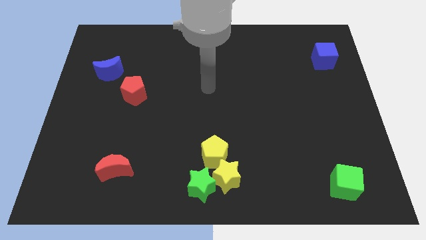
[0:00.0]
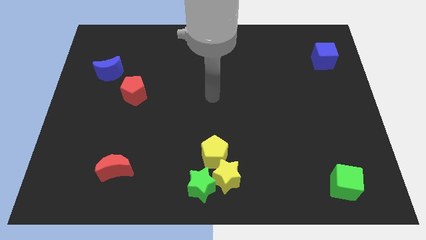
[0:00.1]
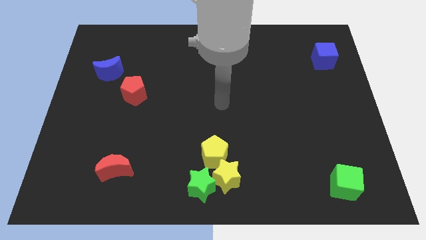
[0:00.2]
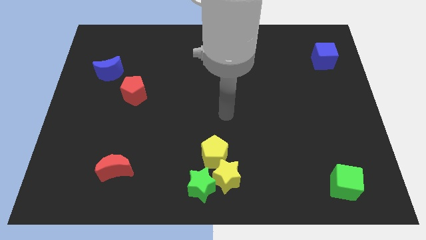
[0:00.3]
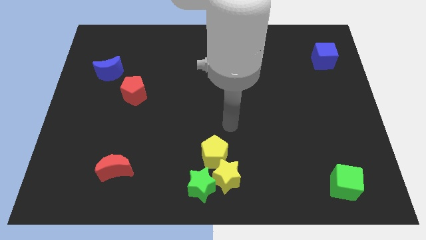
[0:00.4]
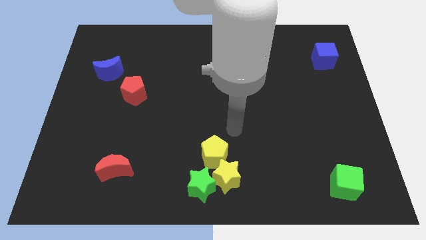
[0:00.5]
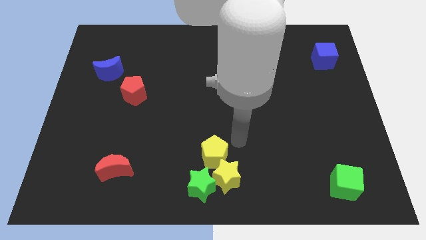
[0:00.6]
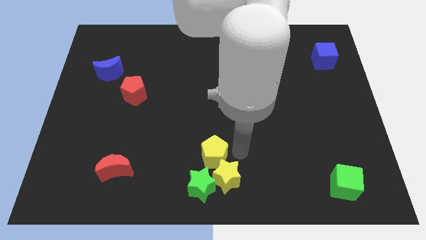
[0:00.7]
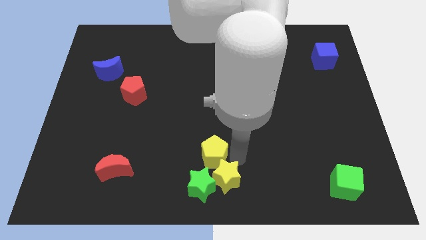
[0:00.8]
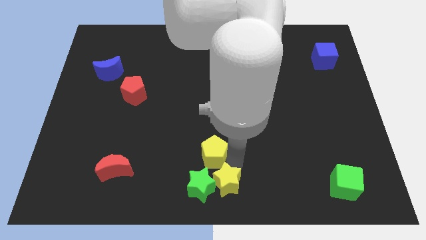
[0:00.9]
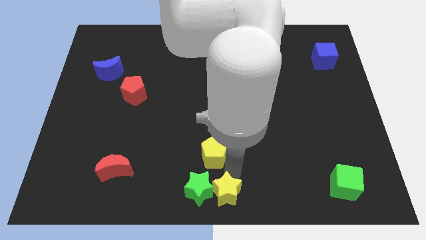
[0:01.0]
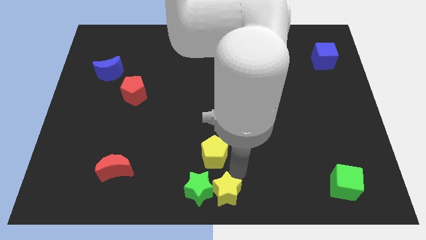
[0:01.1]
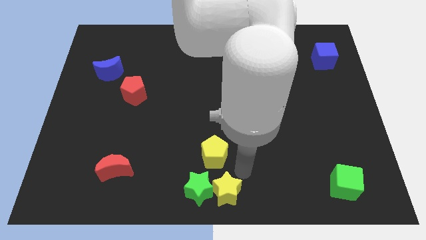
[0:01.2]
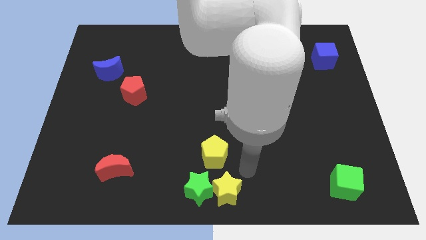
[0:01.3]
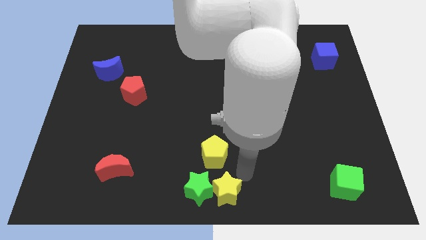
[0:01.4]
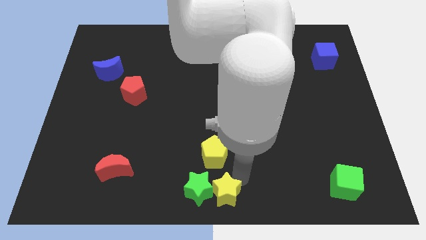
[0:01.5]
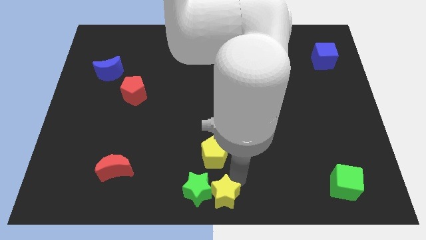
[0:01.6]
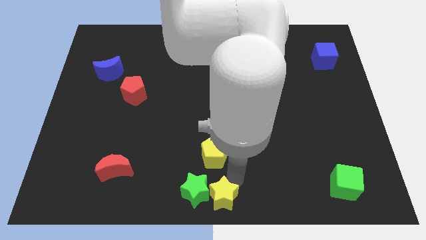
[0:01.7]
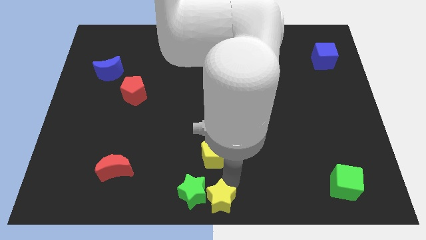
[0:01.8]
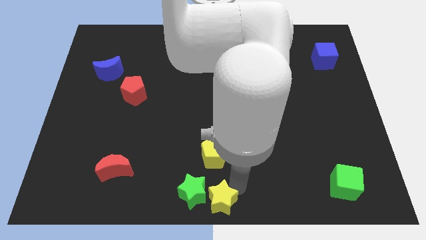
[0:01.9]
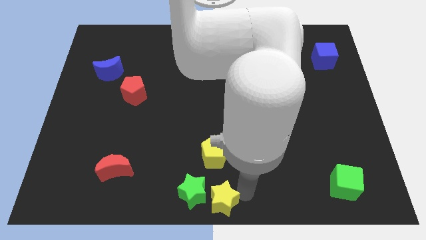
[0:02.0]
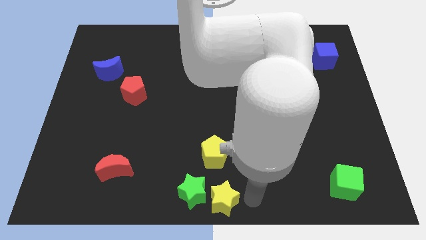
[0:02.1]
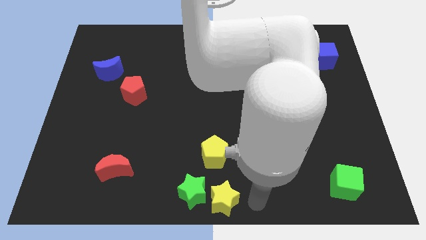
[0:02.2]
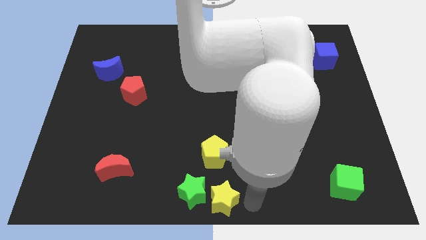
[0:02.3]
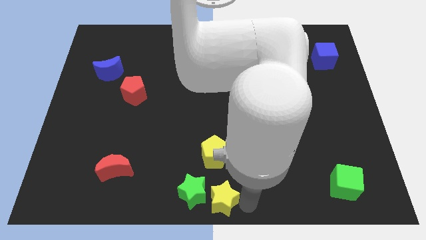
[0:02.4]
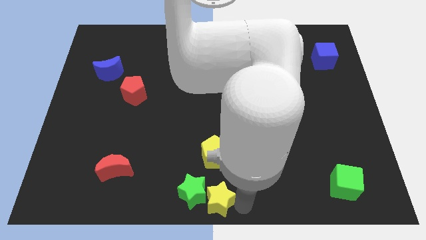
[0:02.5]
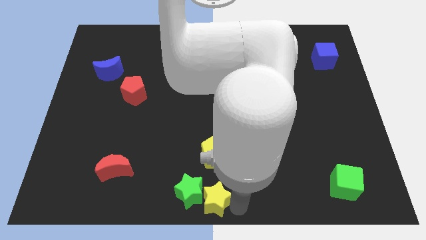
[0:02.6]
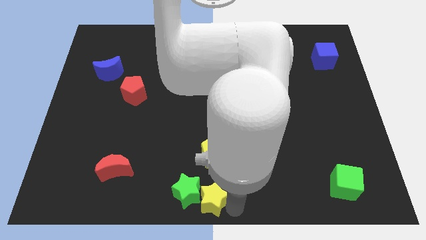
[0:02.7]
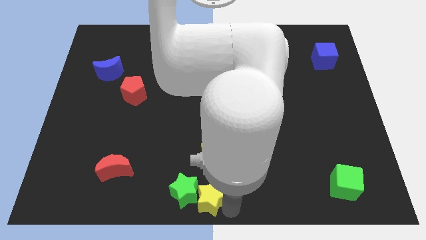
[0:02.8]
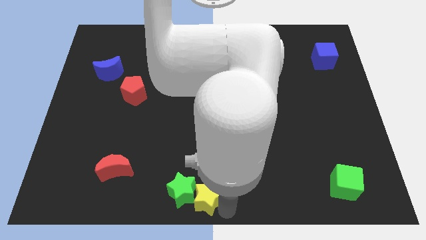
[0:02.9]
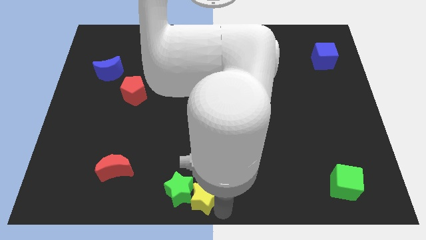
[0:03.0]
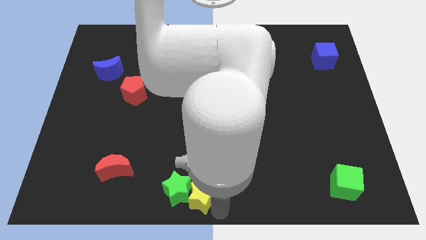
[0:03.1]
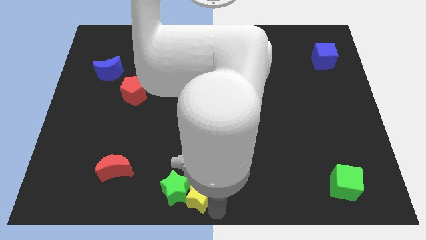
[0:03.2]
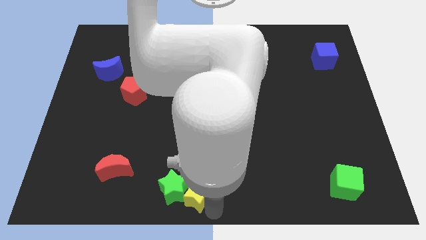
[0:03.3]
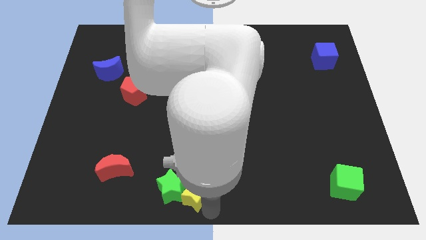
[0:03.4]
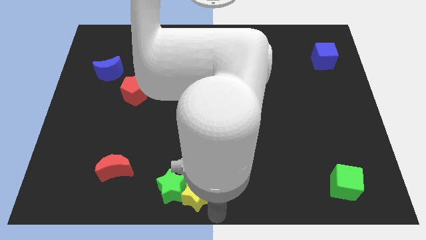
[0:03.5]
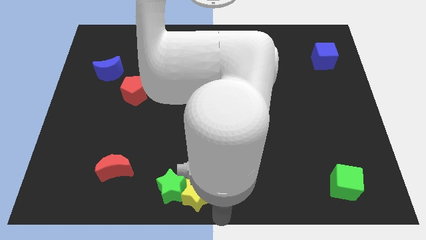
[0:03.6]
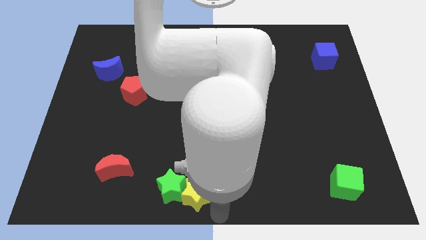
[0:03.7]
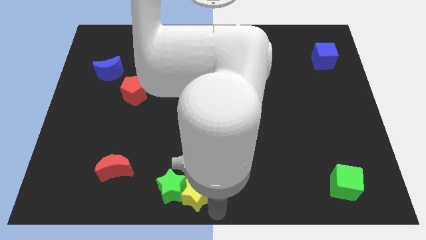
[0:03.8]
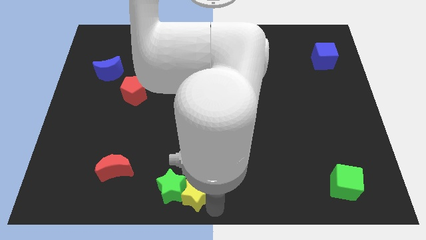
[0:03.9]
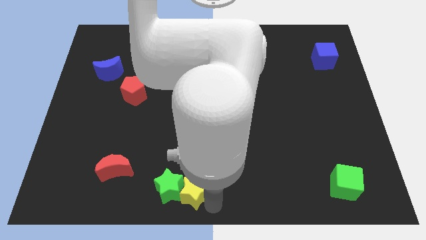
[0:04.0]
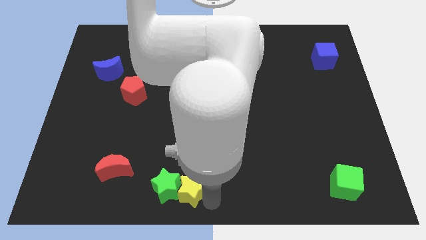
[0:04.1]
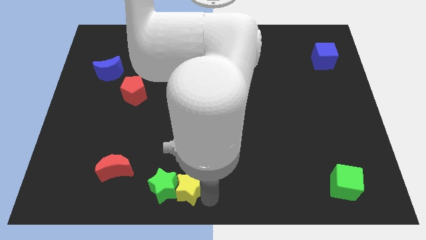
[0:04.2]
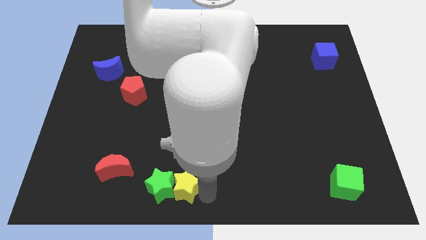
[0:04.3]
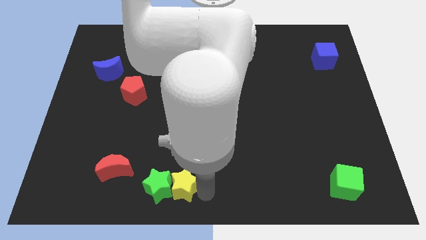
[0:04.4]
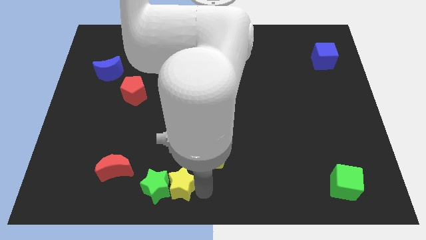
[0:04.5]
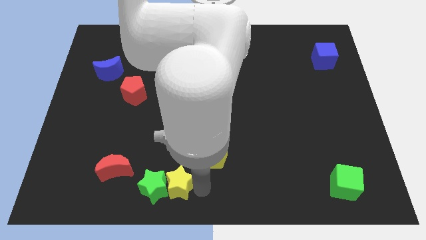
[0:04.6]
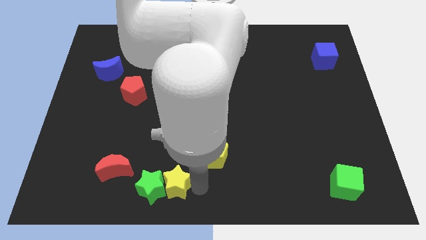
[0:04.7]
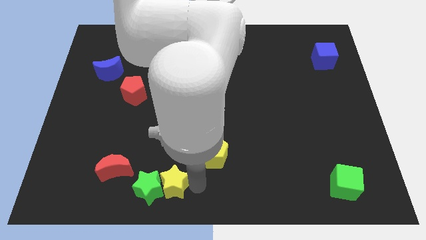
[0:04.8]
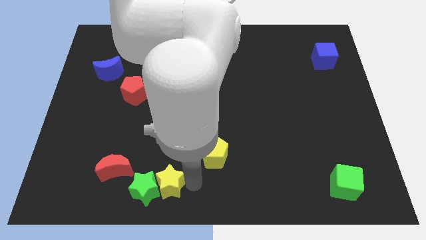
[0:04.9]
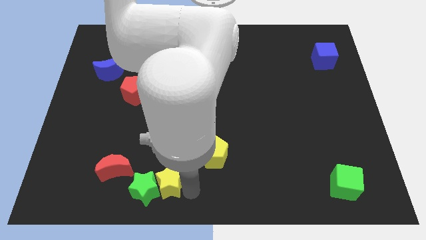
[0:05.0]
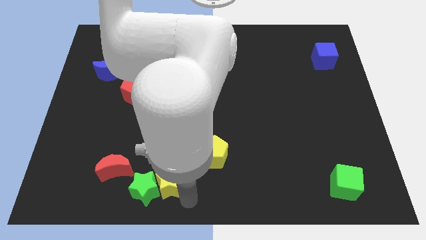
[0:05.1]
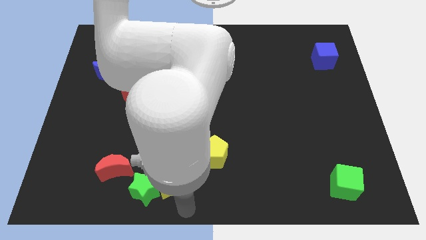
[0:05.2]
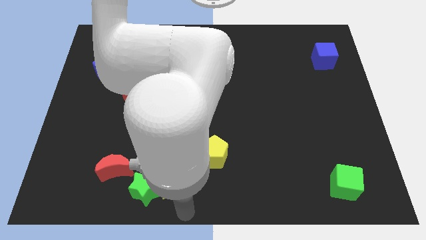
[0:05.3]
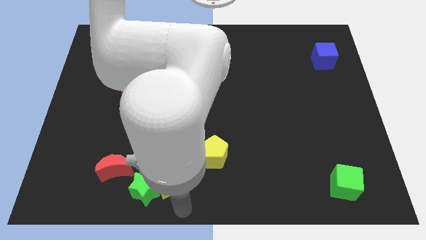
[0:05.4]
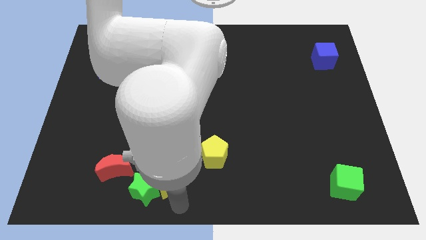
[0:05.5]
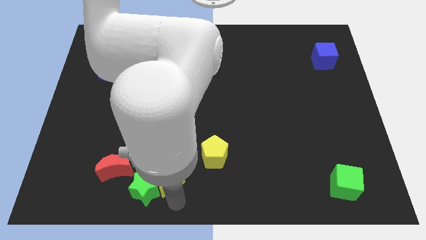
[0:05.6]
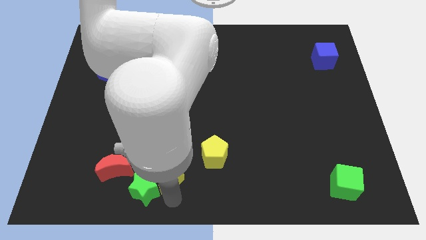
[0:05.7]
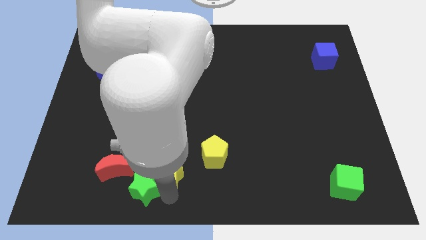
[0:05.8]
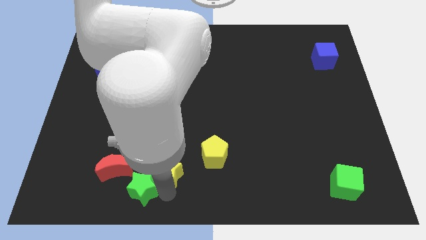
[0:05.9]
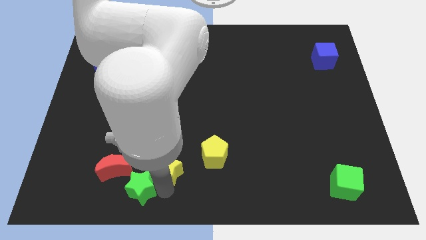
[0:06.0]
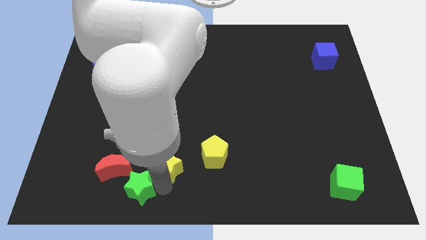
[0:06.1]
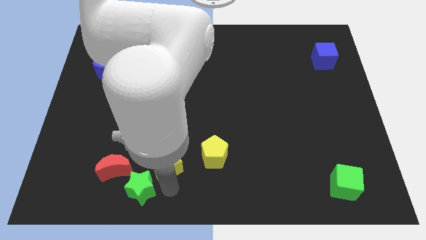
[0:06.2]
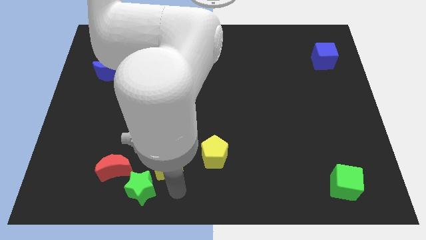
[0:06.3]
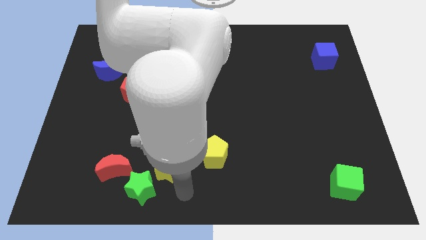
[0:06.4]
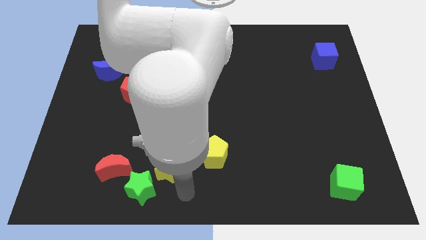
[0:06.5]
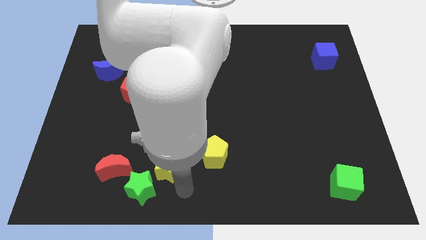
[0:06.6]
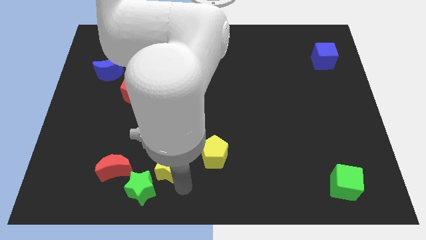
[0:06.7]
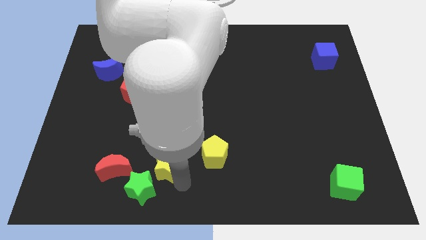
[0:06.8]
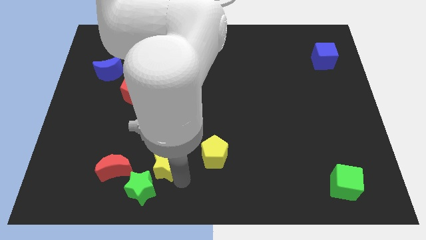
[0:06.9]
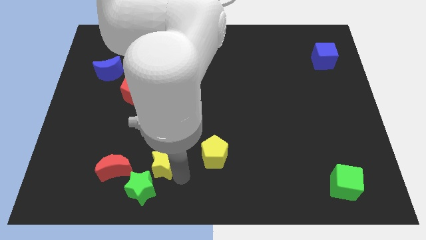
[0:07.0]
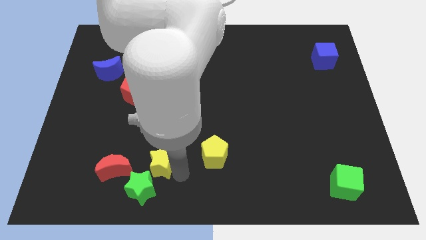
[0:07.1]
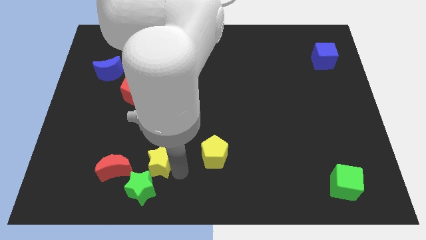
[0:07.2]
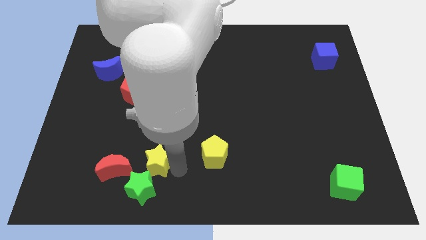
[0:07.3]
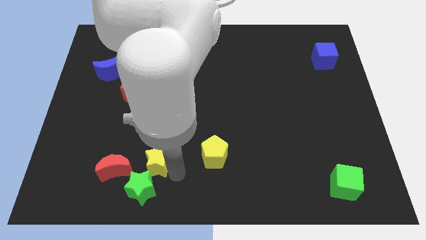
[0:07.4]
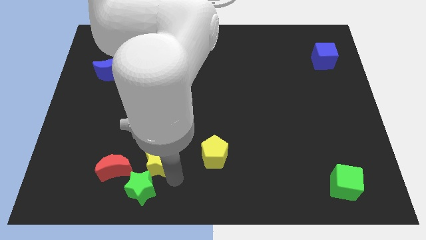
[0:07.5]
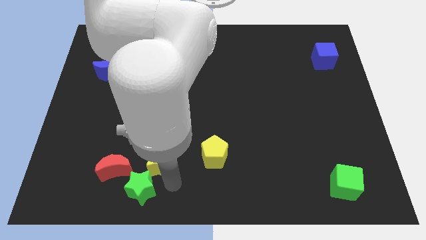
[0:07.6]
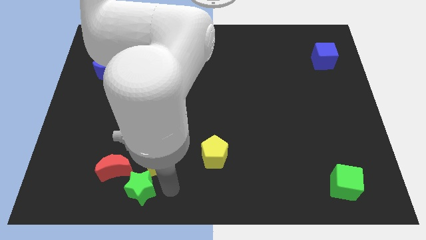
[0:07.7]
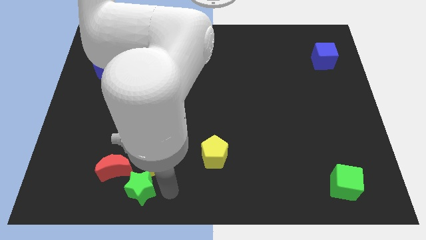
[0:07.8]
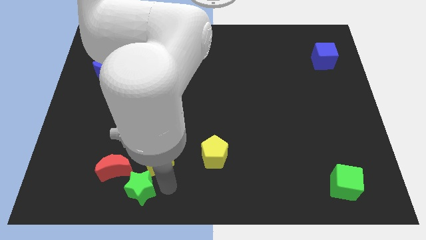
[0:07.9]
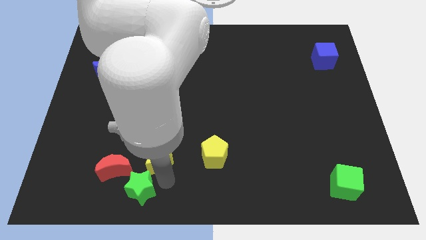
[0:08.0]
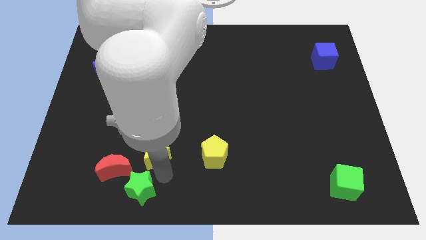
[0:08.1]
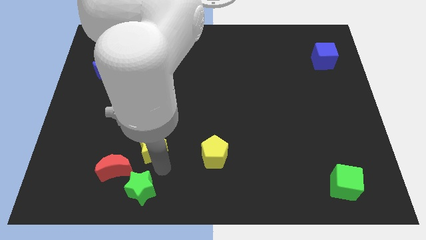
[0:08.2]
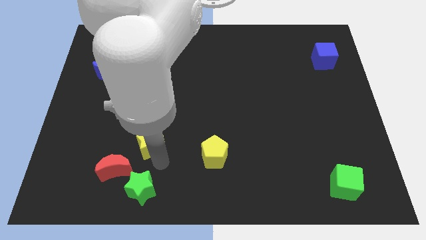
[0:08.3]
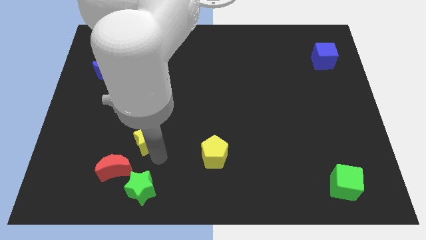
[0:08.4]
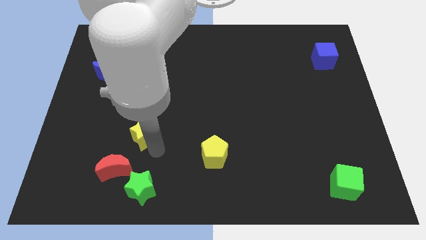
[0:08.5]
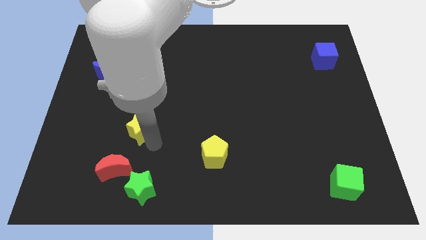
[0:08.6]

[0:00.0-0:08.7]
put the yellow star to the top of the red moon
